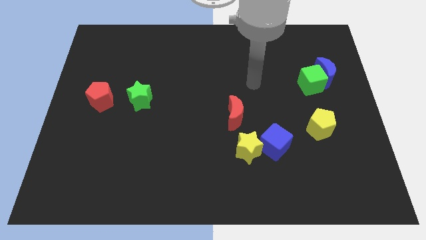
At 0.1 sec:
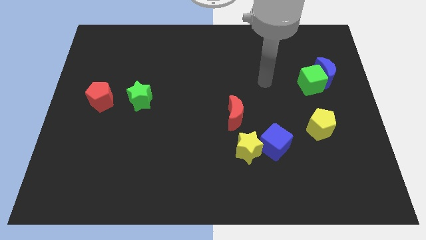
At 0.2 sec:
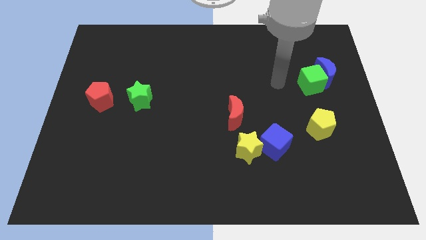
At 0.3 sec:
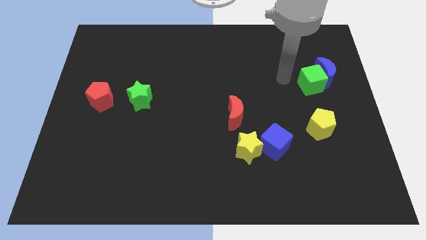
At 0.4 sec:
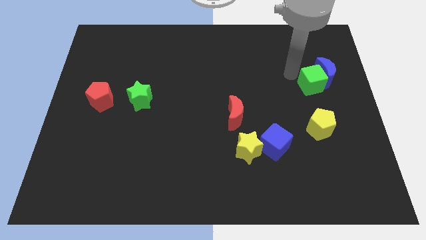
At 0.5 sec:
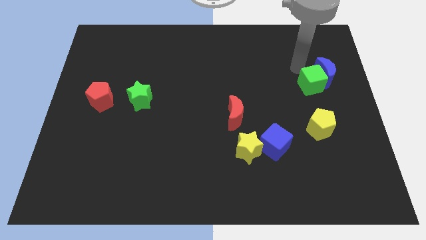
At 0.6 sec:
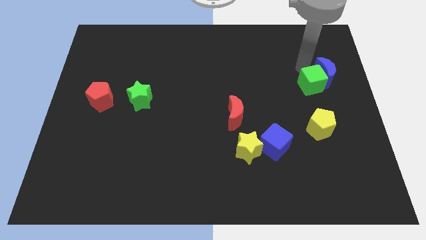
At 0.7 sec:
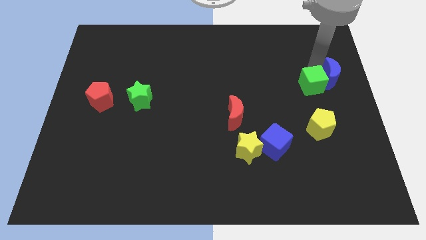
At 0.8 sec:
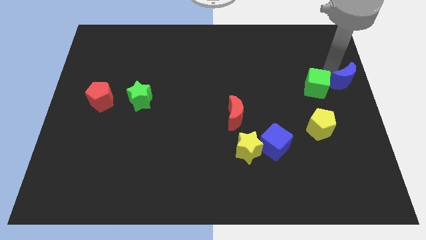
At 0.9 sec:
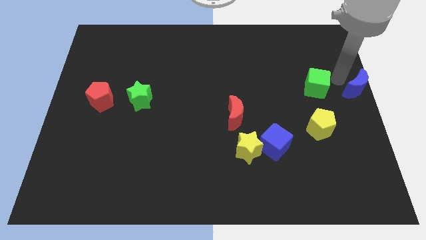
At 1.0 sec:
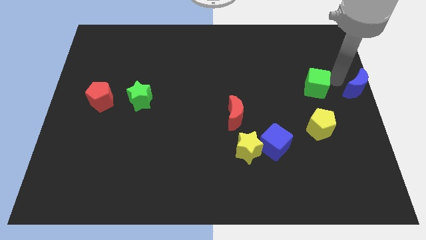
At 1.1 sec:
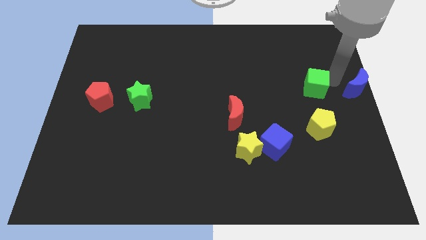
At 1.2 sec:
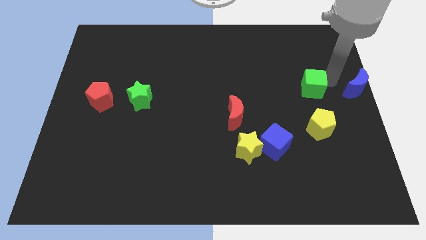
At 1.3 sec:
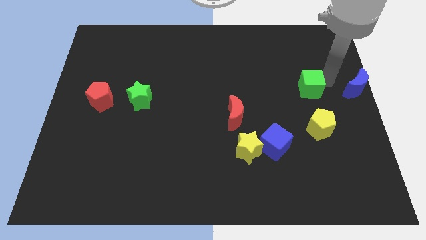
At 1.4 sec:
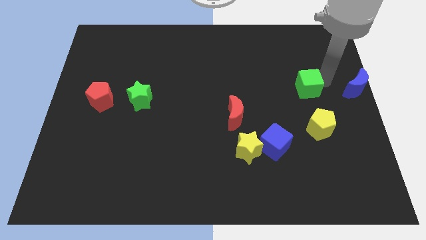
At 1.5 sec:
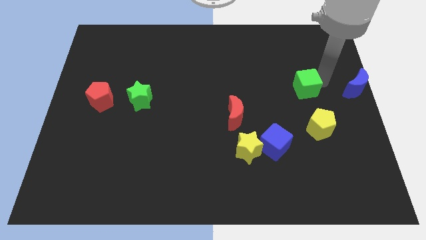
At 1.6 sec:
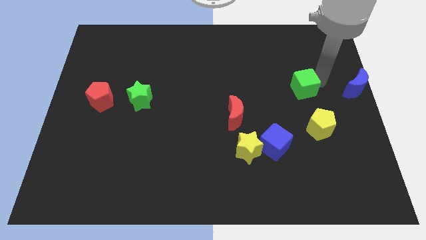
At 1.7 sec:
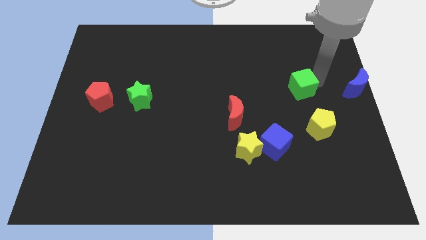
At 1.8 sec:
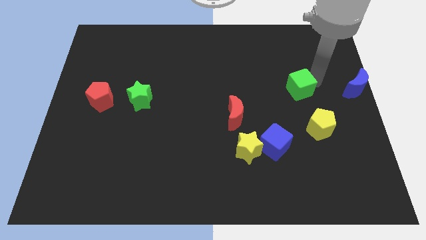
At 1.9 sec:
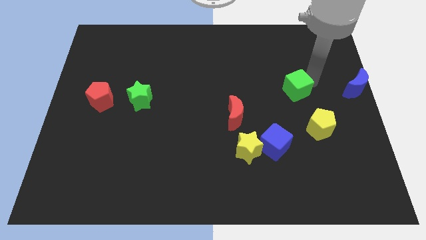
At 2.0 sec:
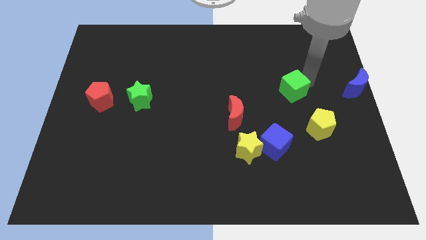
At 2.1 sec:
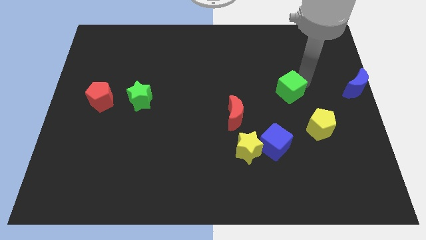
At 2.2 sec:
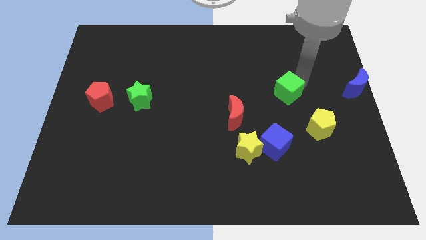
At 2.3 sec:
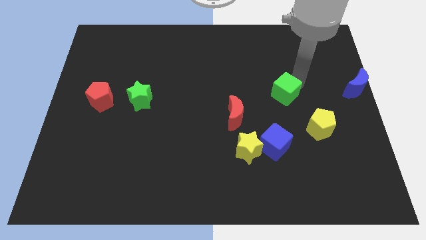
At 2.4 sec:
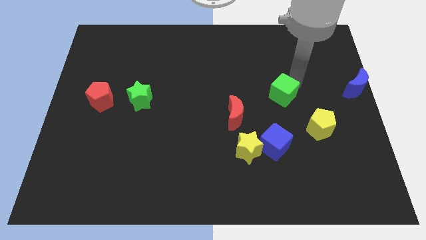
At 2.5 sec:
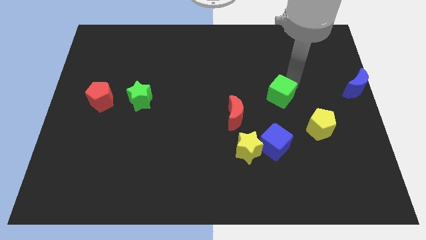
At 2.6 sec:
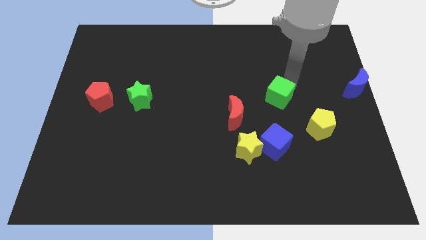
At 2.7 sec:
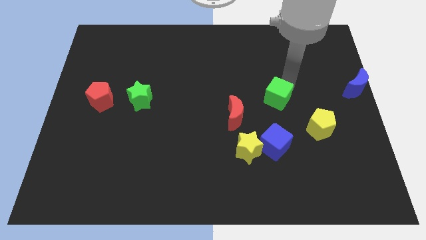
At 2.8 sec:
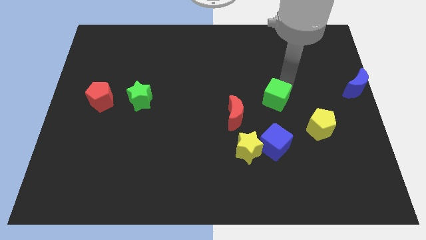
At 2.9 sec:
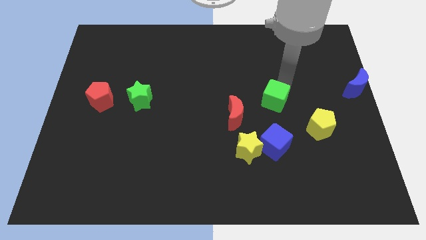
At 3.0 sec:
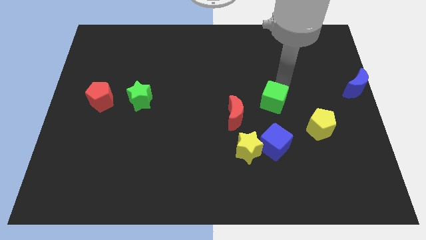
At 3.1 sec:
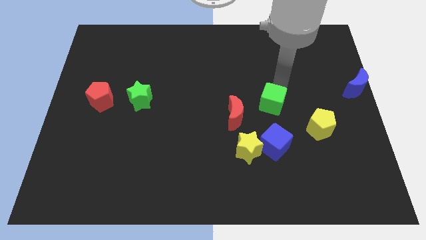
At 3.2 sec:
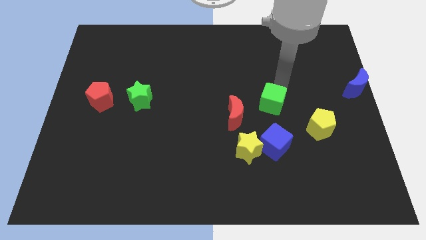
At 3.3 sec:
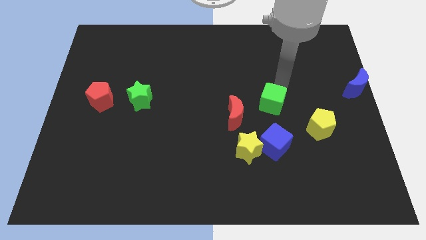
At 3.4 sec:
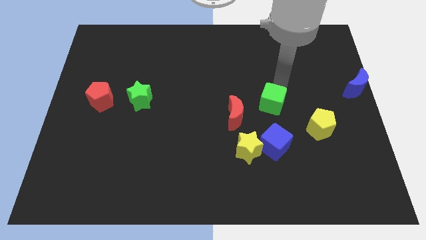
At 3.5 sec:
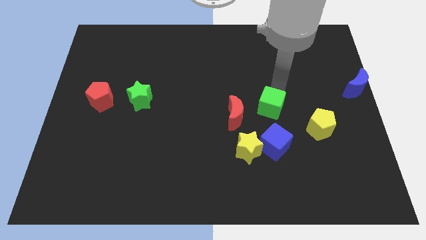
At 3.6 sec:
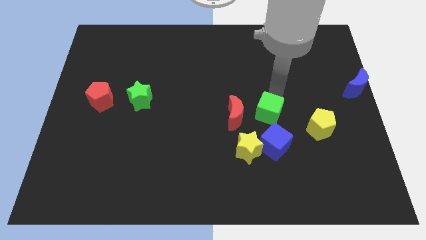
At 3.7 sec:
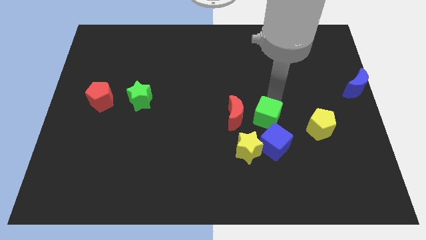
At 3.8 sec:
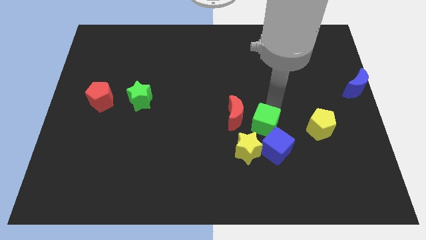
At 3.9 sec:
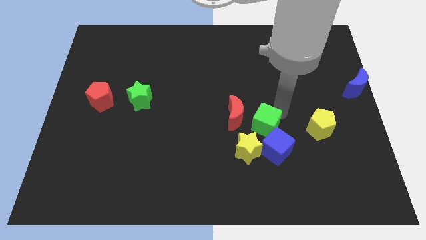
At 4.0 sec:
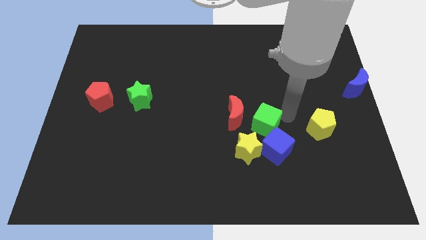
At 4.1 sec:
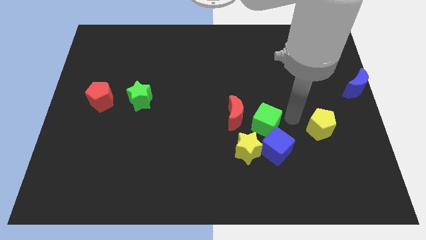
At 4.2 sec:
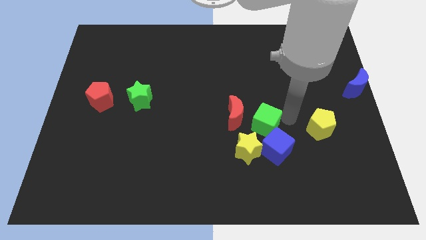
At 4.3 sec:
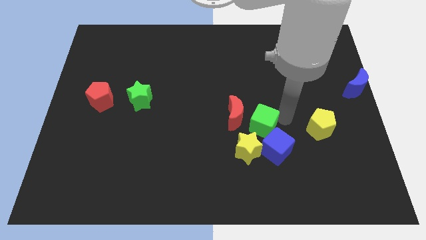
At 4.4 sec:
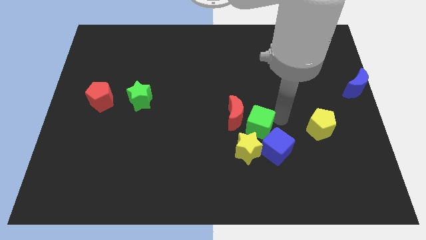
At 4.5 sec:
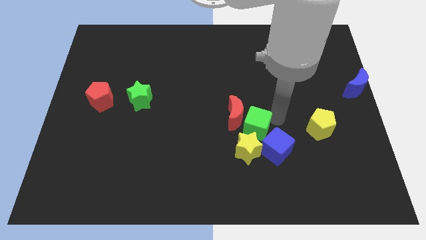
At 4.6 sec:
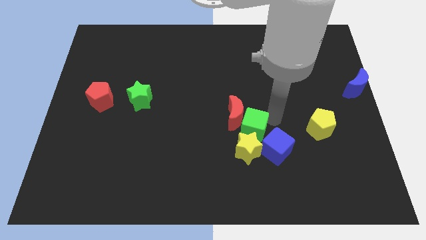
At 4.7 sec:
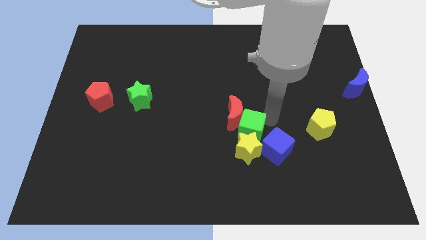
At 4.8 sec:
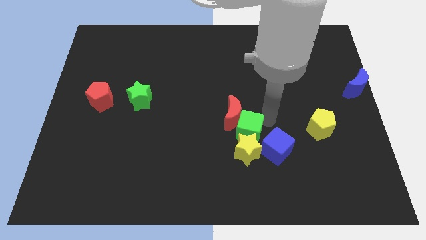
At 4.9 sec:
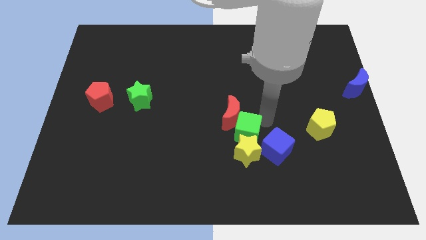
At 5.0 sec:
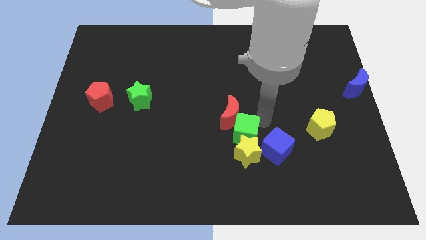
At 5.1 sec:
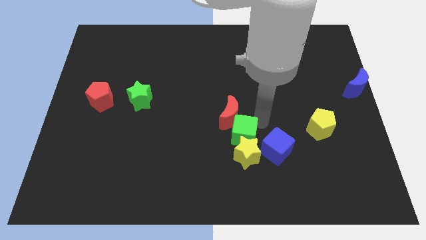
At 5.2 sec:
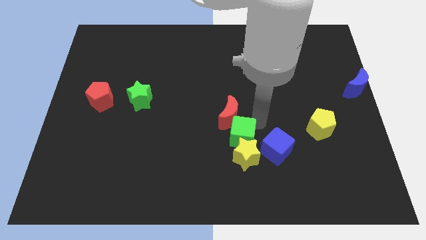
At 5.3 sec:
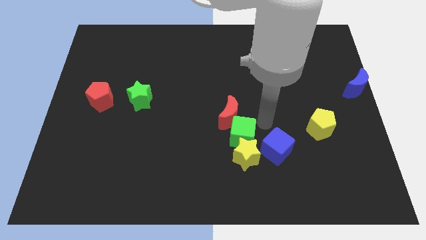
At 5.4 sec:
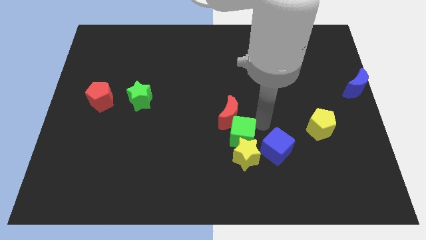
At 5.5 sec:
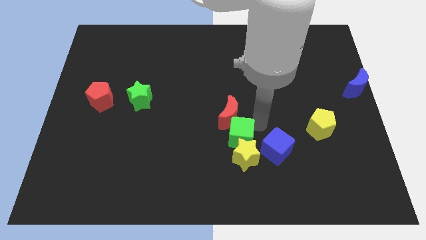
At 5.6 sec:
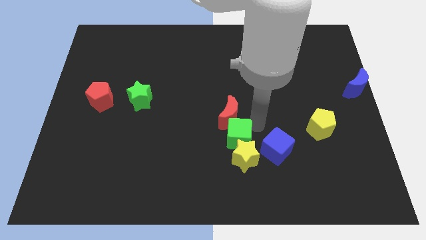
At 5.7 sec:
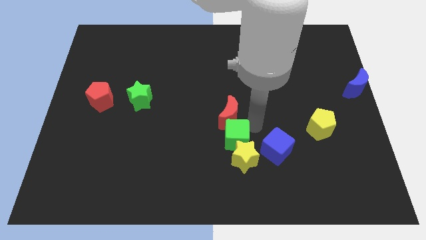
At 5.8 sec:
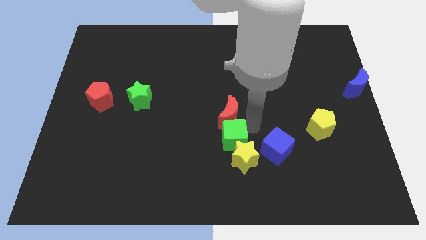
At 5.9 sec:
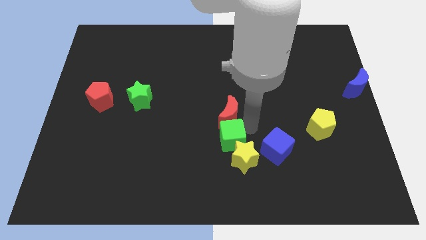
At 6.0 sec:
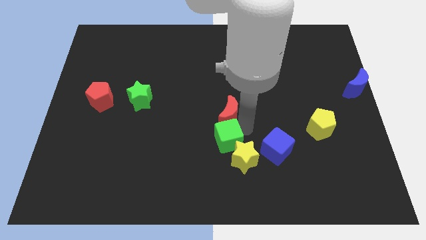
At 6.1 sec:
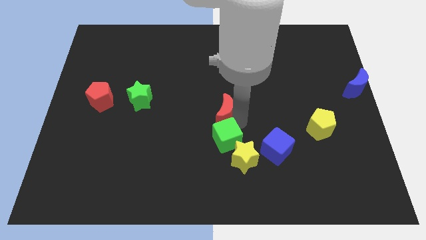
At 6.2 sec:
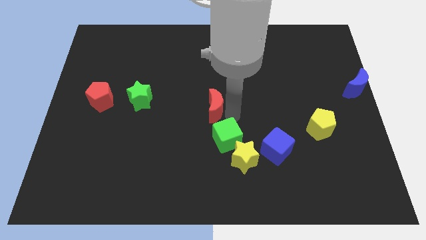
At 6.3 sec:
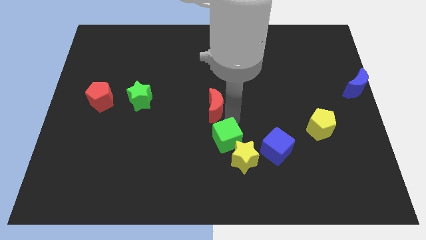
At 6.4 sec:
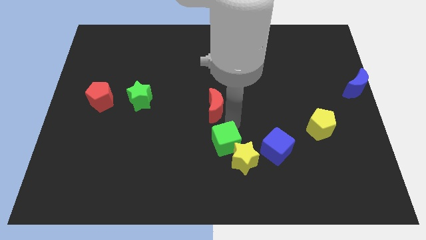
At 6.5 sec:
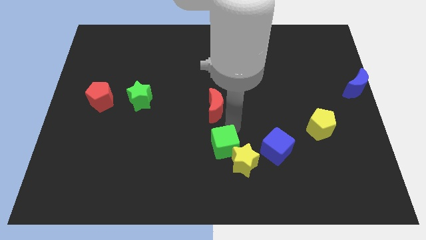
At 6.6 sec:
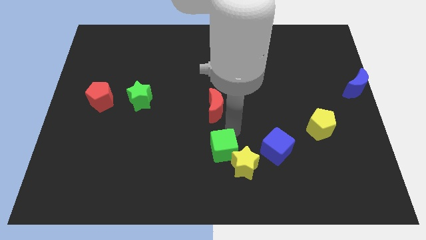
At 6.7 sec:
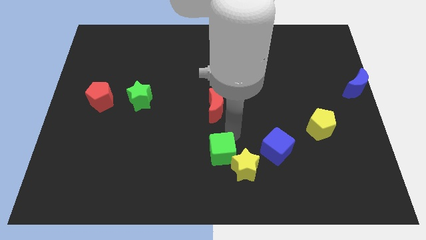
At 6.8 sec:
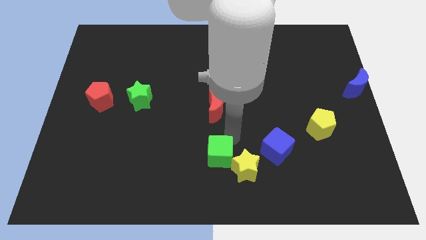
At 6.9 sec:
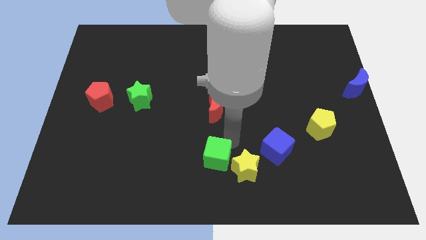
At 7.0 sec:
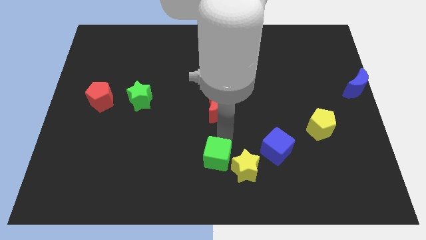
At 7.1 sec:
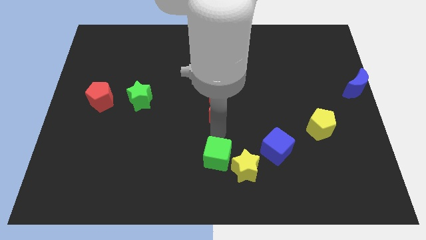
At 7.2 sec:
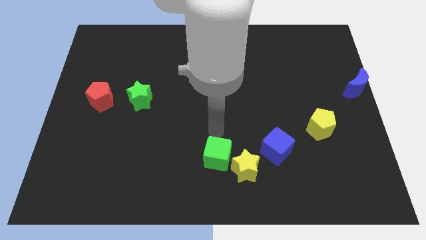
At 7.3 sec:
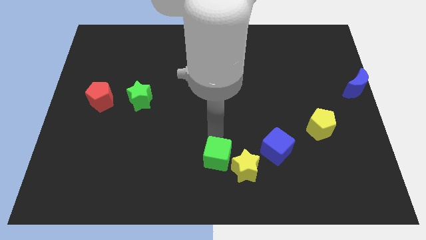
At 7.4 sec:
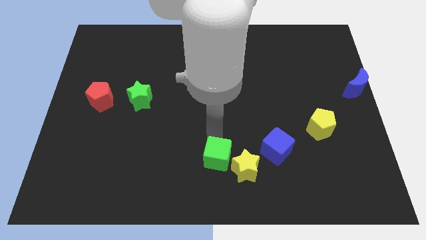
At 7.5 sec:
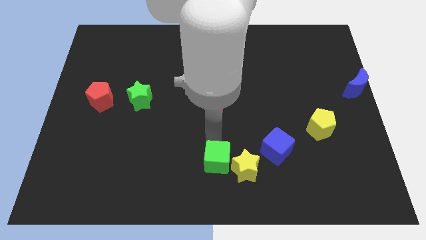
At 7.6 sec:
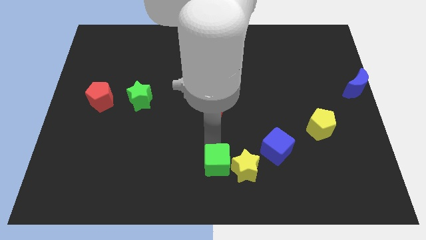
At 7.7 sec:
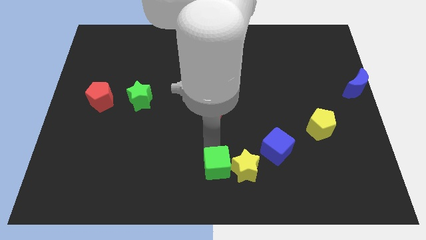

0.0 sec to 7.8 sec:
push the green cube to the bottom left of the yellow star
